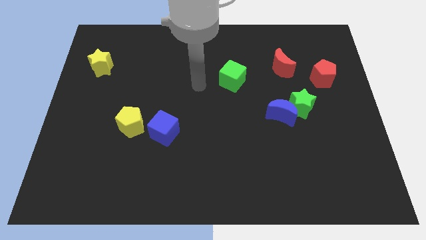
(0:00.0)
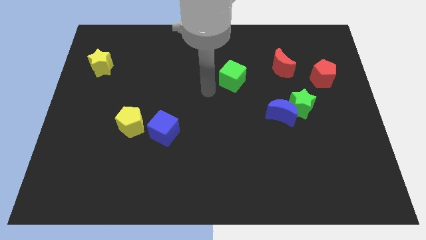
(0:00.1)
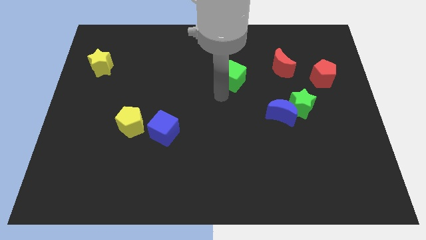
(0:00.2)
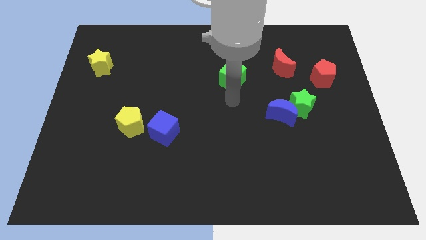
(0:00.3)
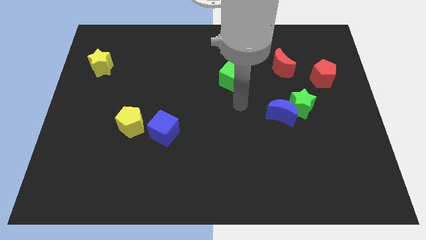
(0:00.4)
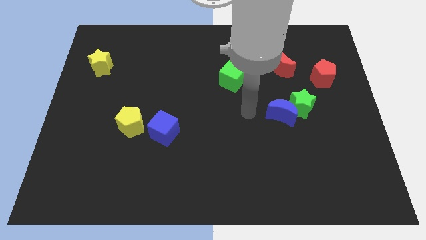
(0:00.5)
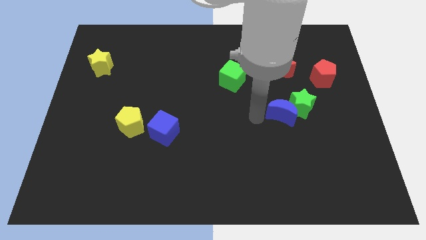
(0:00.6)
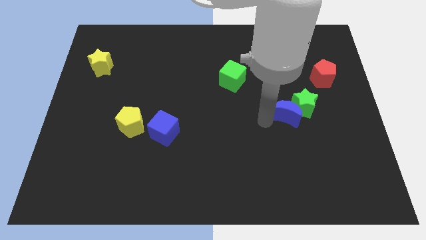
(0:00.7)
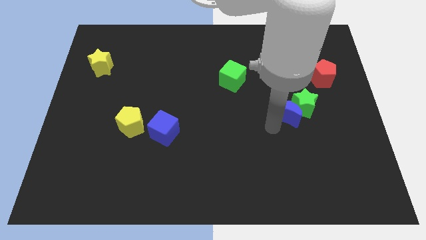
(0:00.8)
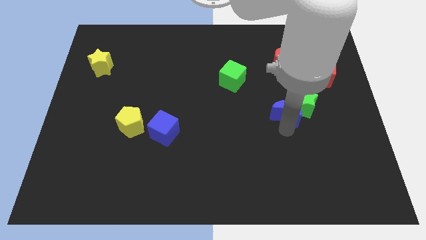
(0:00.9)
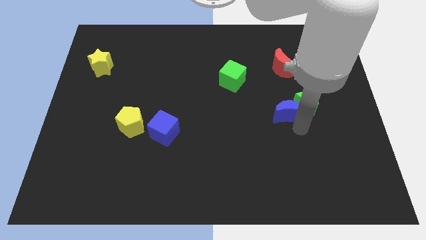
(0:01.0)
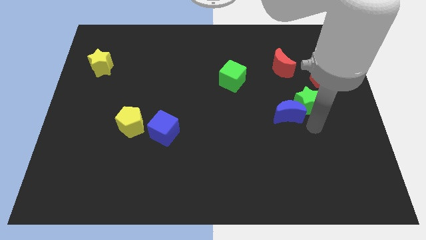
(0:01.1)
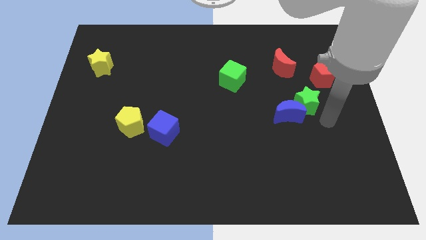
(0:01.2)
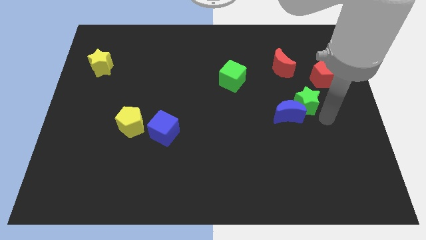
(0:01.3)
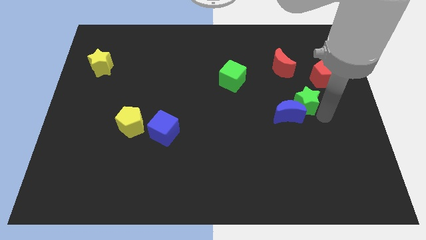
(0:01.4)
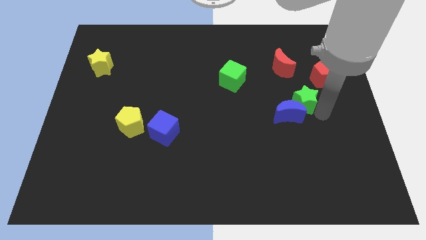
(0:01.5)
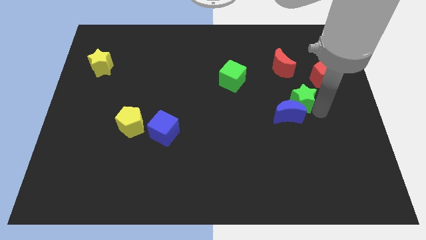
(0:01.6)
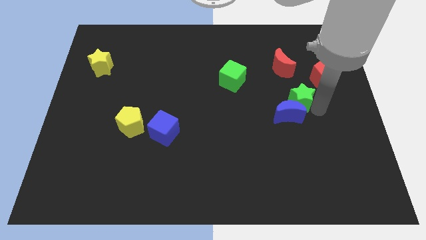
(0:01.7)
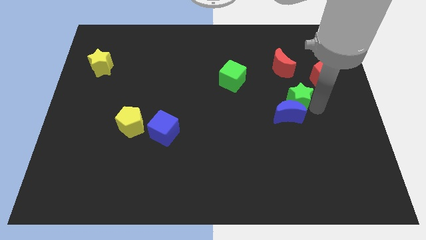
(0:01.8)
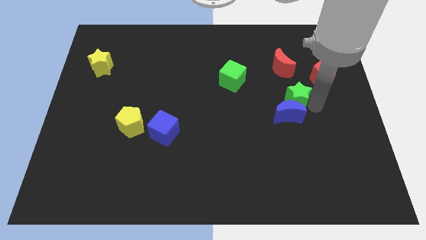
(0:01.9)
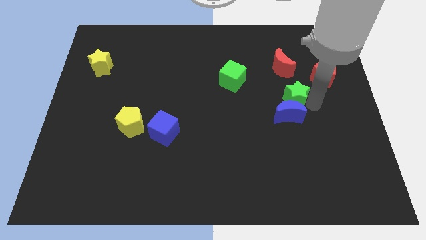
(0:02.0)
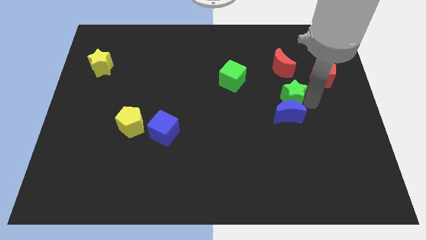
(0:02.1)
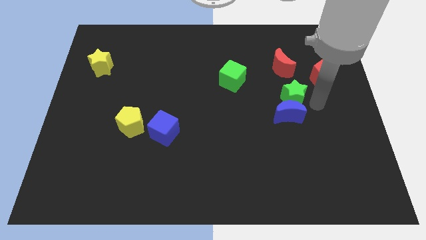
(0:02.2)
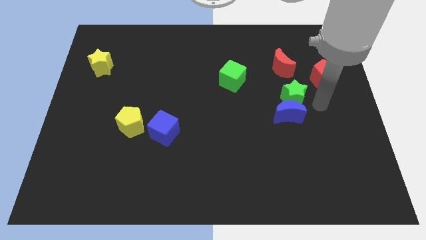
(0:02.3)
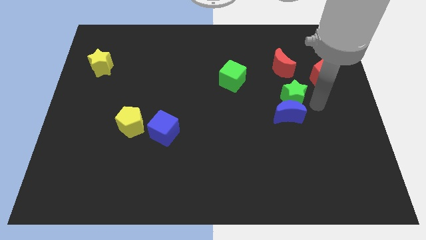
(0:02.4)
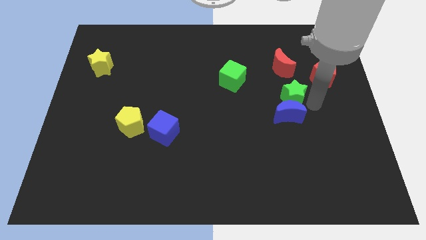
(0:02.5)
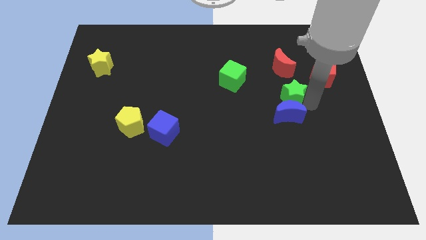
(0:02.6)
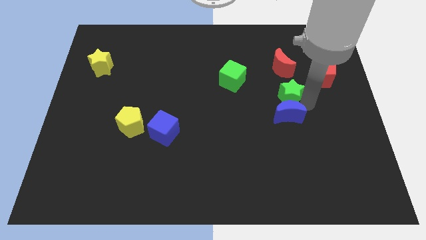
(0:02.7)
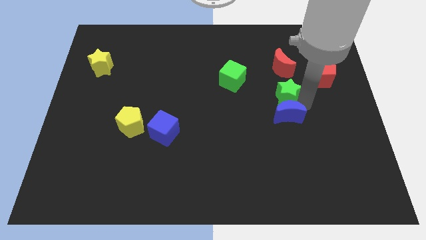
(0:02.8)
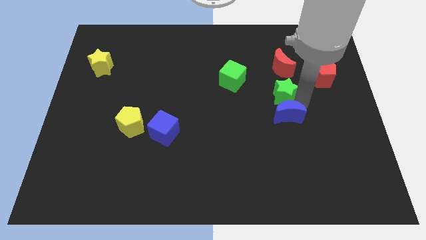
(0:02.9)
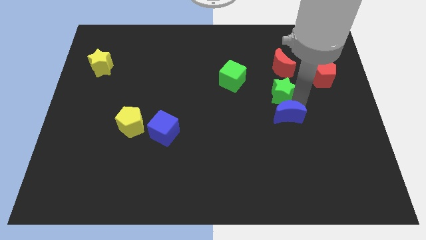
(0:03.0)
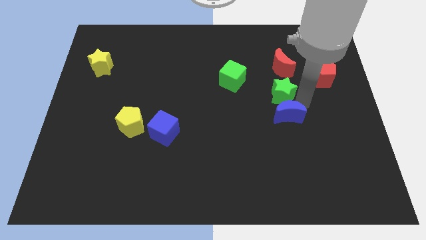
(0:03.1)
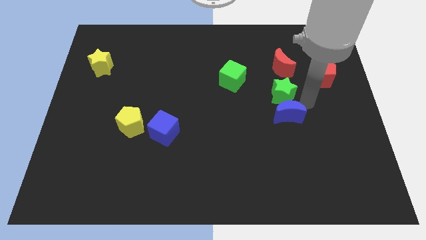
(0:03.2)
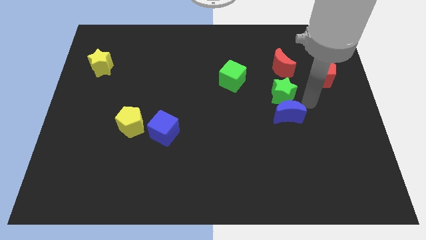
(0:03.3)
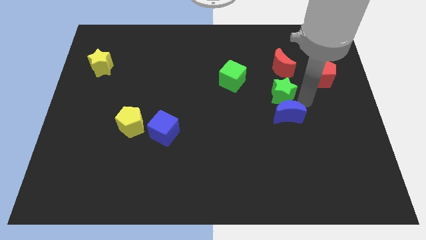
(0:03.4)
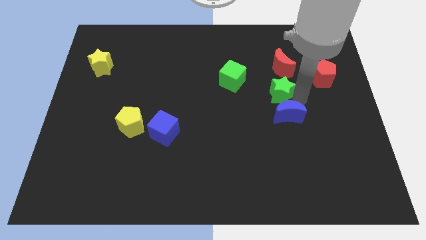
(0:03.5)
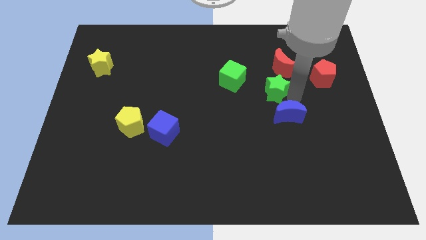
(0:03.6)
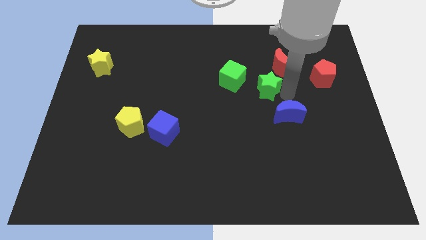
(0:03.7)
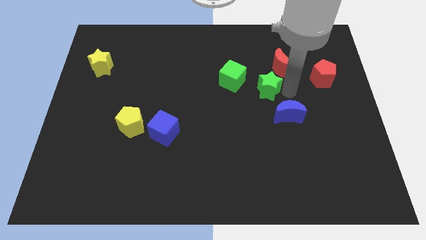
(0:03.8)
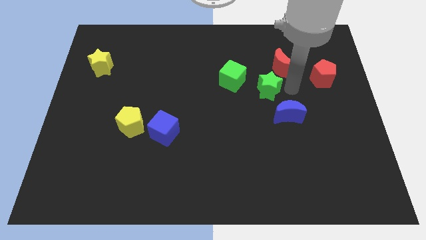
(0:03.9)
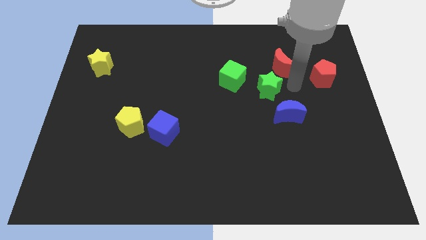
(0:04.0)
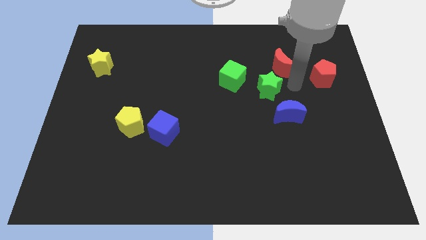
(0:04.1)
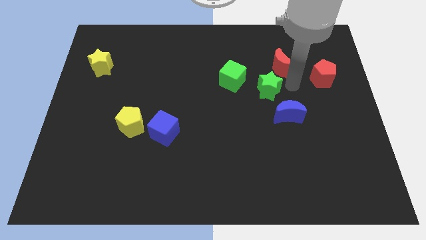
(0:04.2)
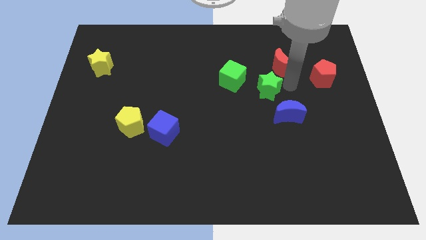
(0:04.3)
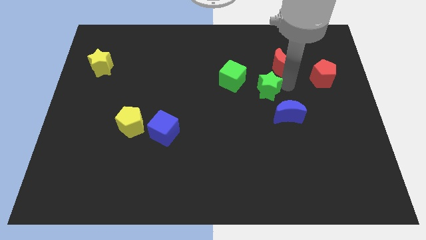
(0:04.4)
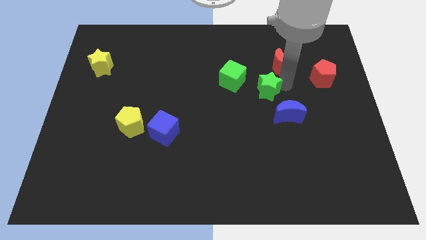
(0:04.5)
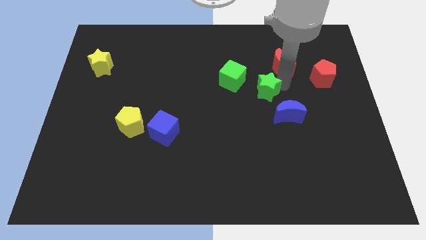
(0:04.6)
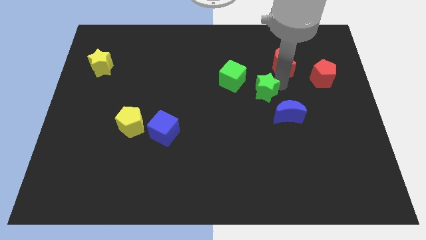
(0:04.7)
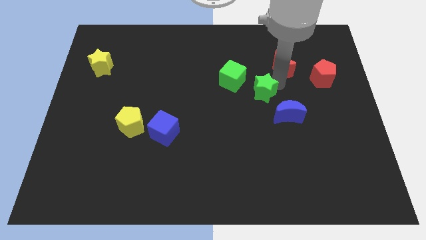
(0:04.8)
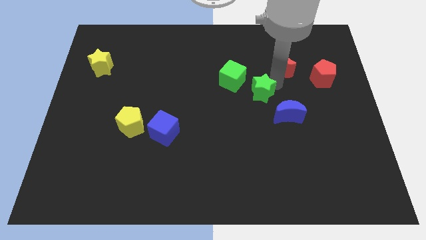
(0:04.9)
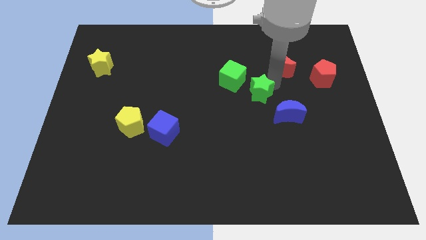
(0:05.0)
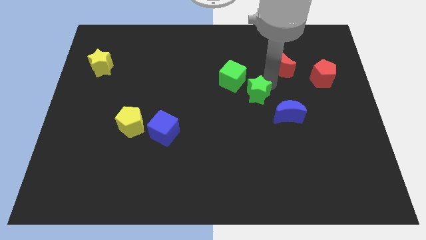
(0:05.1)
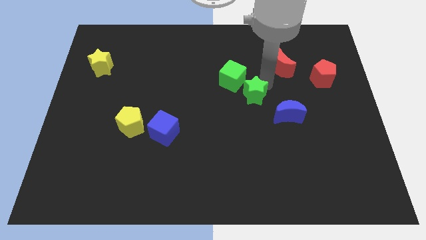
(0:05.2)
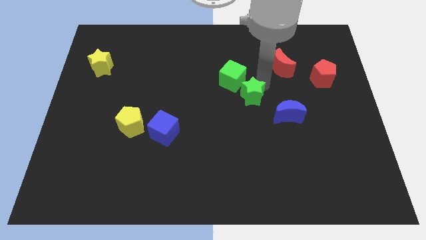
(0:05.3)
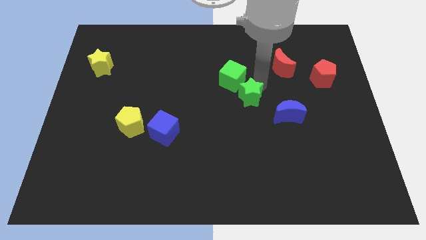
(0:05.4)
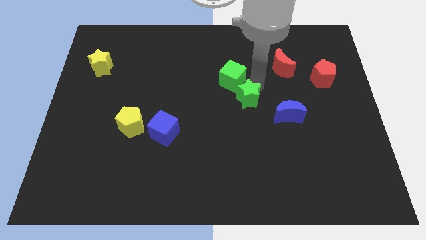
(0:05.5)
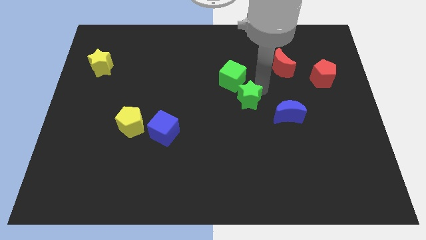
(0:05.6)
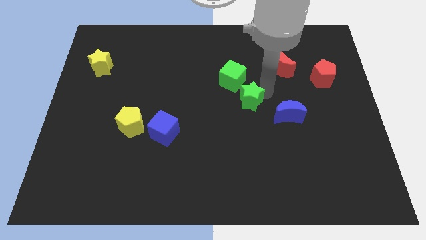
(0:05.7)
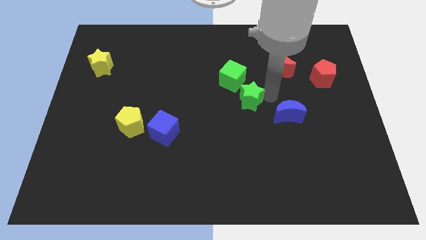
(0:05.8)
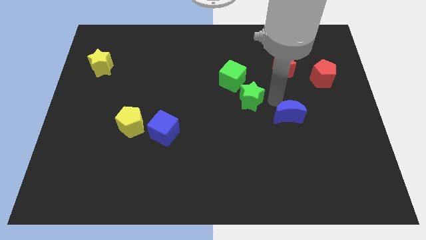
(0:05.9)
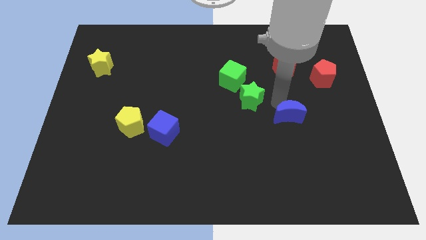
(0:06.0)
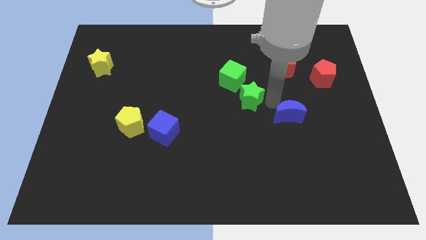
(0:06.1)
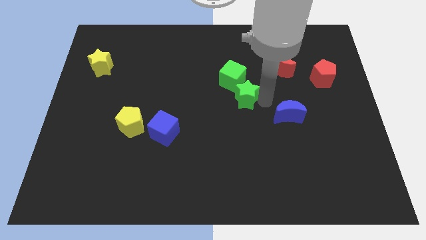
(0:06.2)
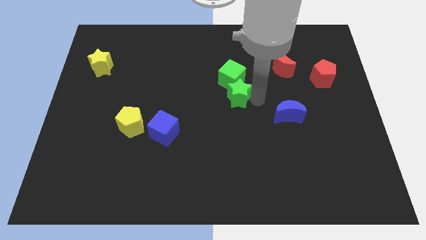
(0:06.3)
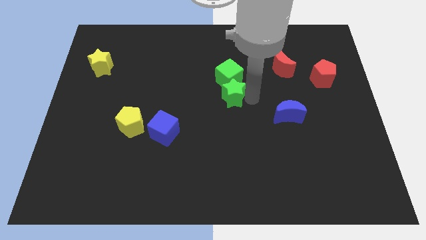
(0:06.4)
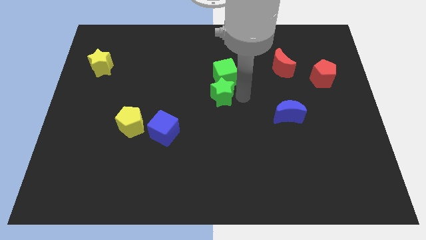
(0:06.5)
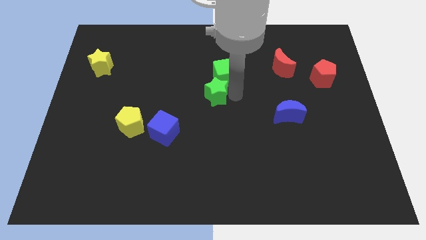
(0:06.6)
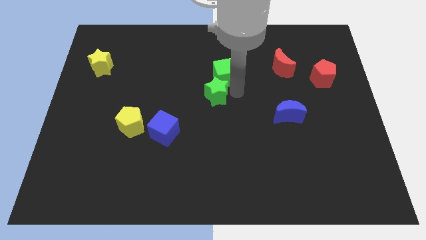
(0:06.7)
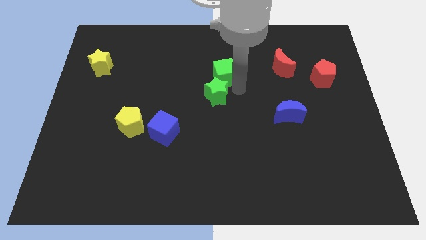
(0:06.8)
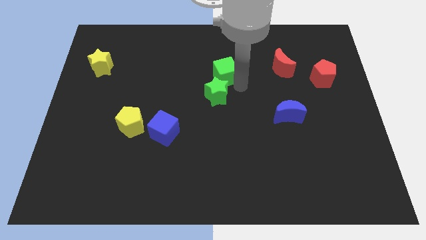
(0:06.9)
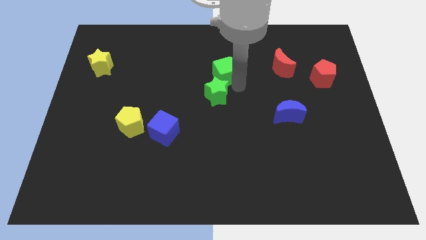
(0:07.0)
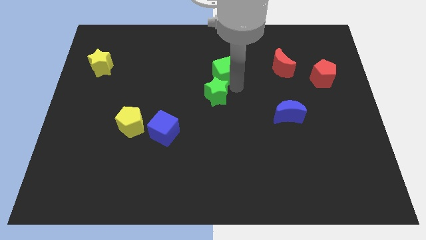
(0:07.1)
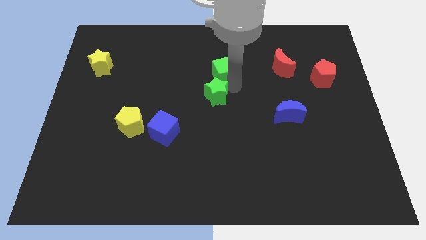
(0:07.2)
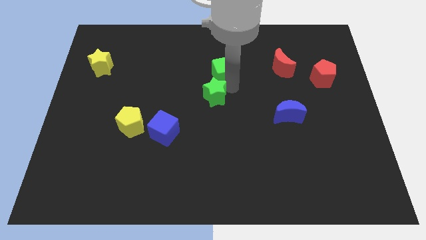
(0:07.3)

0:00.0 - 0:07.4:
move the green star to the left

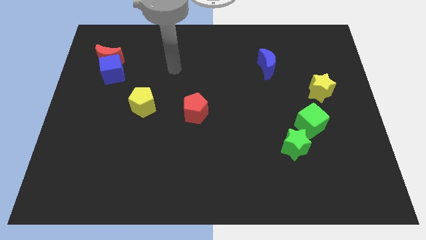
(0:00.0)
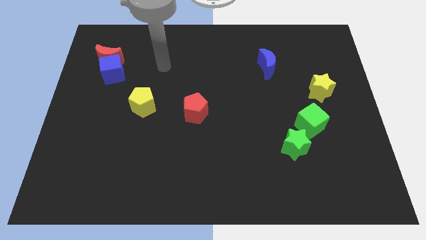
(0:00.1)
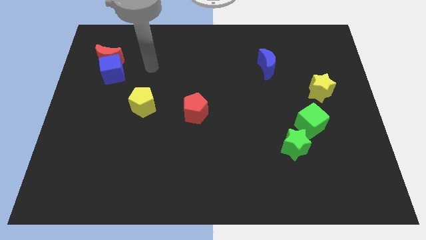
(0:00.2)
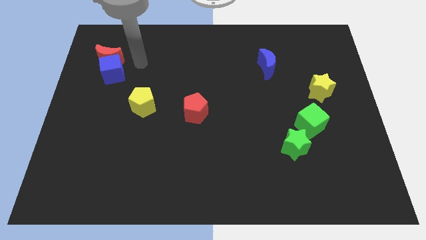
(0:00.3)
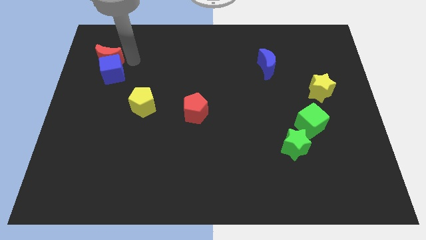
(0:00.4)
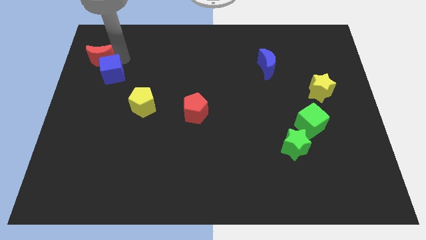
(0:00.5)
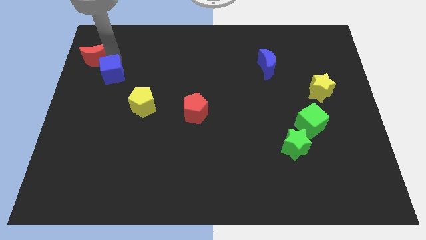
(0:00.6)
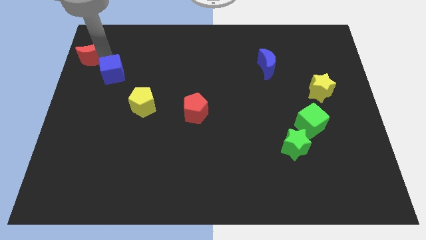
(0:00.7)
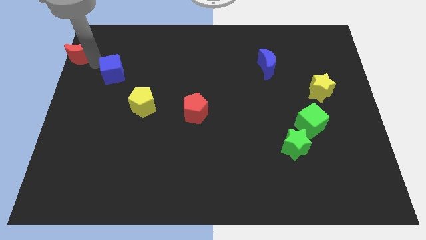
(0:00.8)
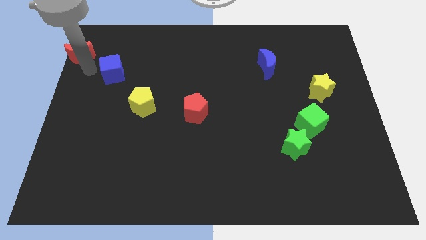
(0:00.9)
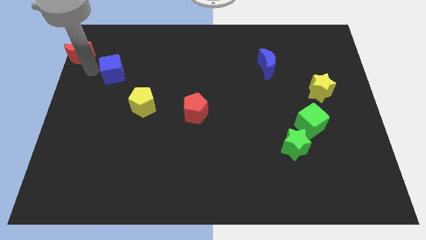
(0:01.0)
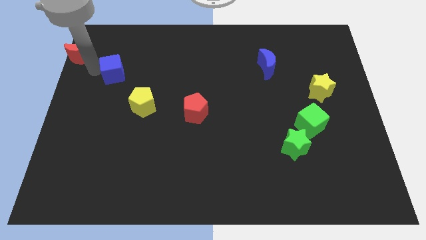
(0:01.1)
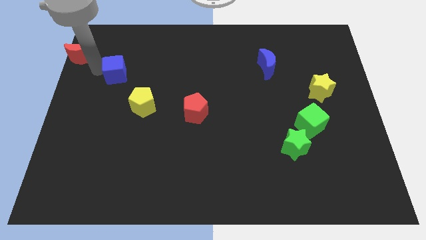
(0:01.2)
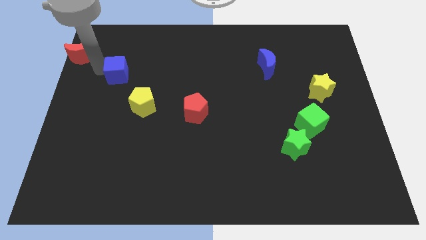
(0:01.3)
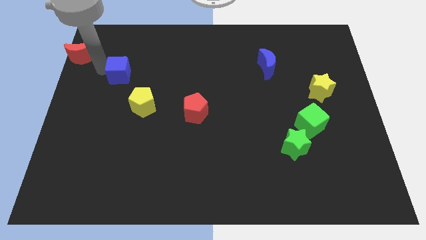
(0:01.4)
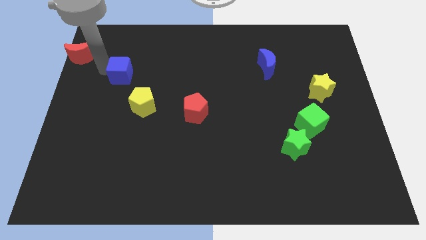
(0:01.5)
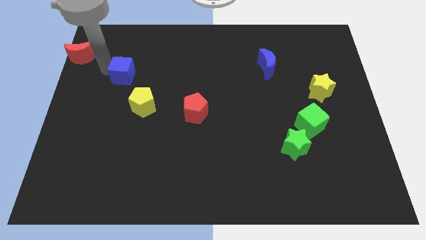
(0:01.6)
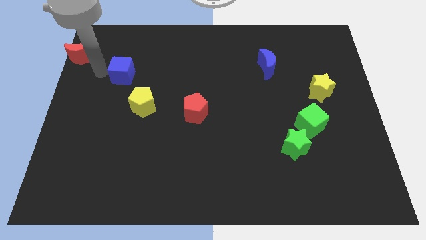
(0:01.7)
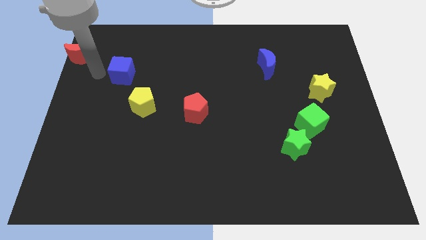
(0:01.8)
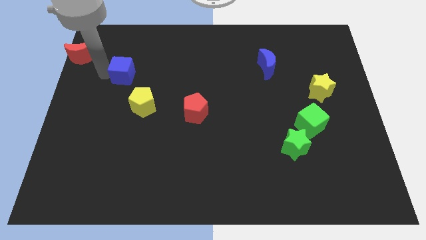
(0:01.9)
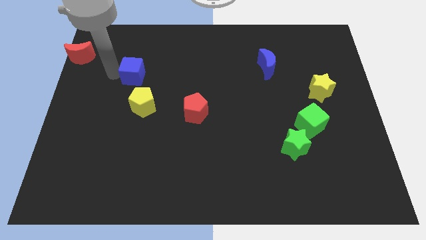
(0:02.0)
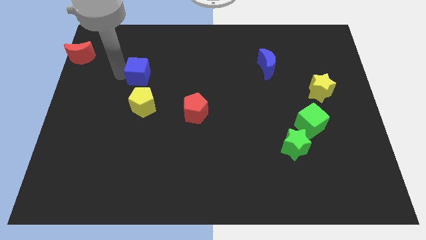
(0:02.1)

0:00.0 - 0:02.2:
move the blue cube right somewhat
